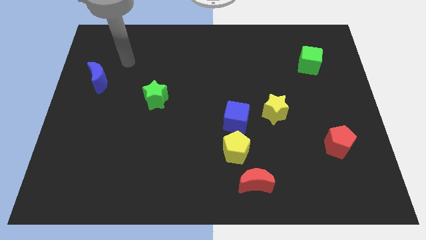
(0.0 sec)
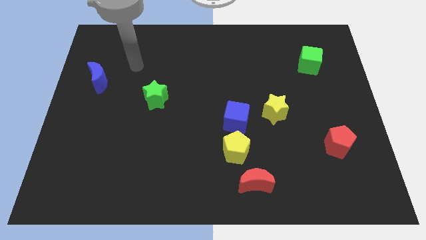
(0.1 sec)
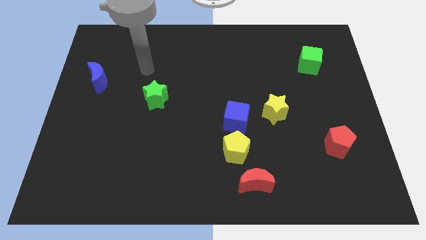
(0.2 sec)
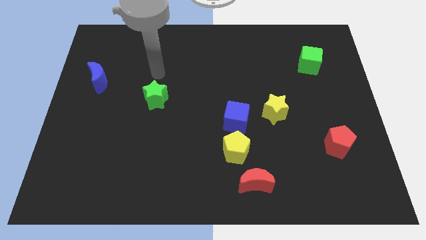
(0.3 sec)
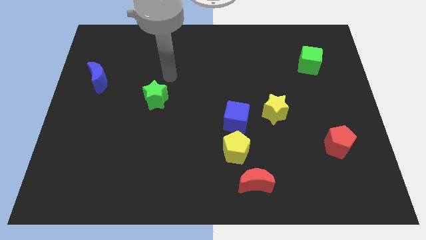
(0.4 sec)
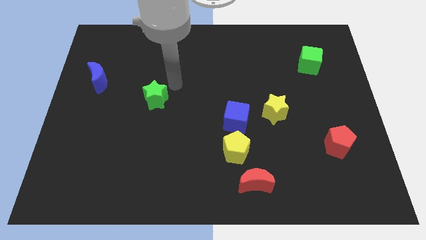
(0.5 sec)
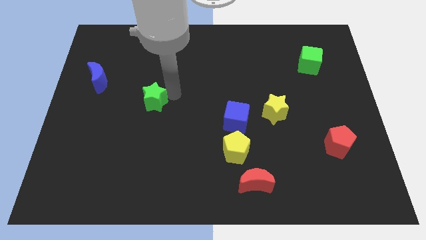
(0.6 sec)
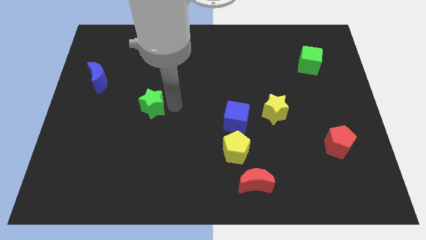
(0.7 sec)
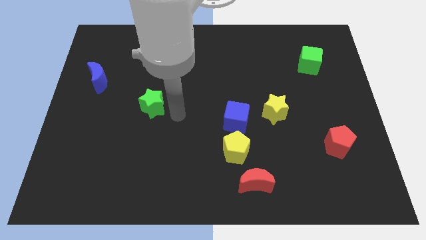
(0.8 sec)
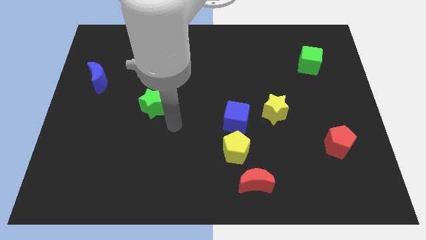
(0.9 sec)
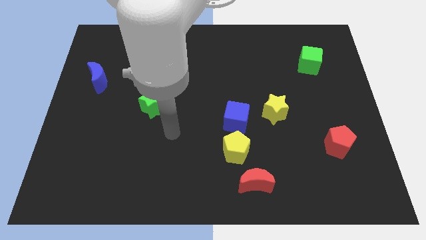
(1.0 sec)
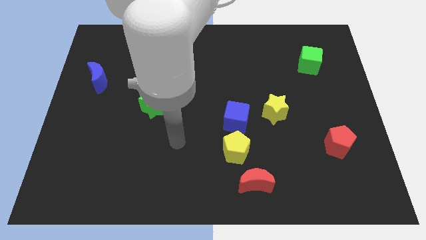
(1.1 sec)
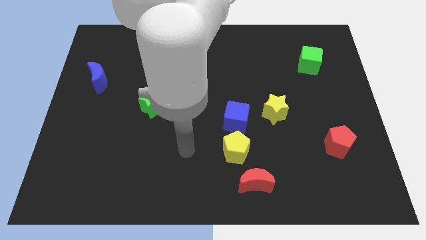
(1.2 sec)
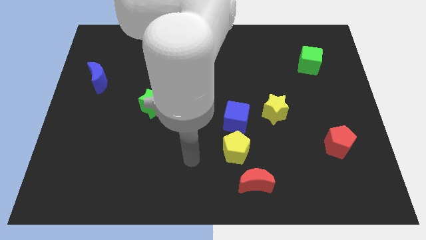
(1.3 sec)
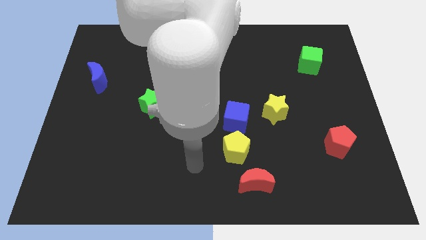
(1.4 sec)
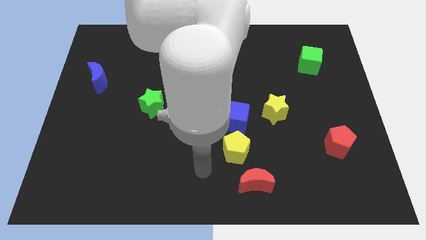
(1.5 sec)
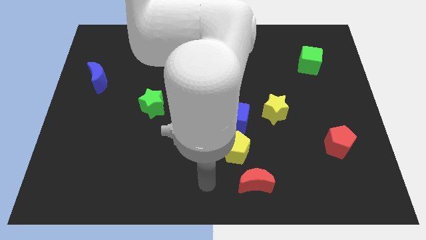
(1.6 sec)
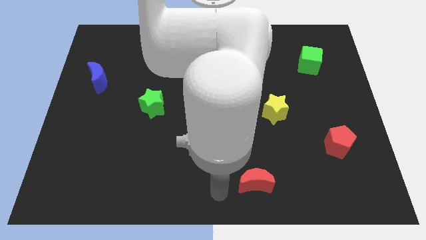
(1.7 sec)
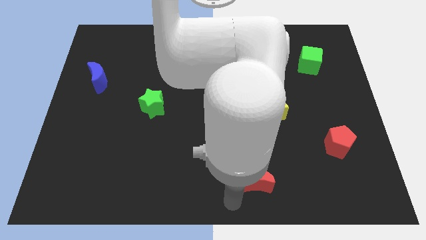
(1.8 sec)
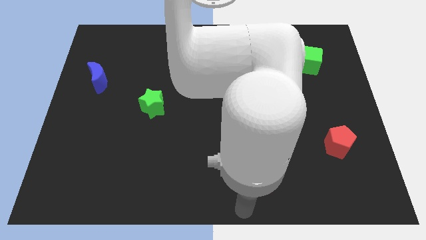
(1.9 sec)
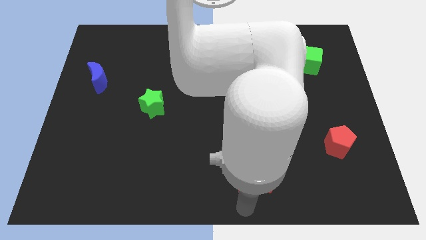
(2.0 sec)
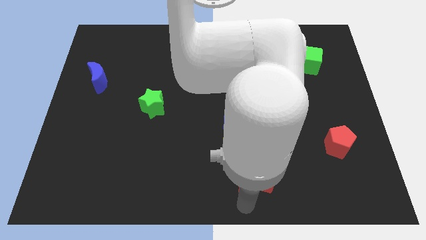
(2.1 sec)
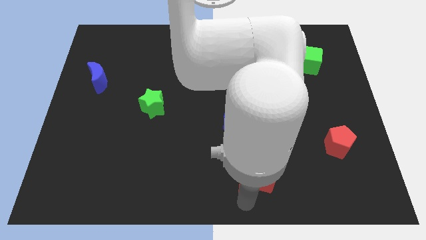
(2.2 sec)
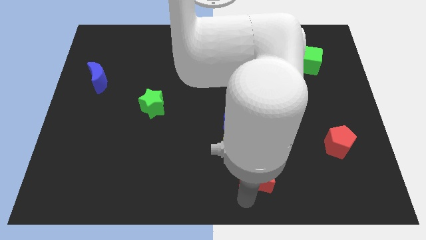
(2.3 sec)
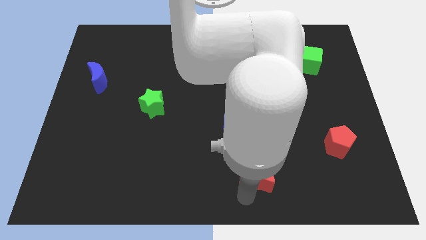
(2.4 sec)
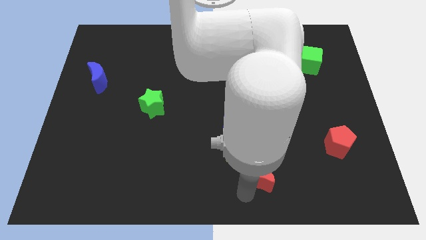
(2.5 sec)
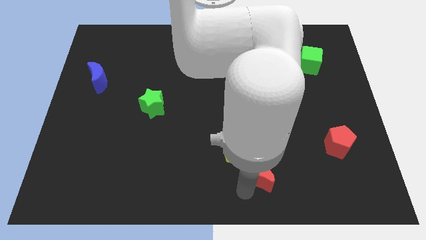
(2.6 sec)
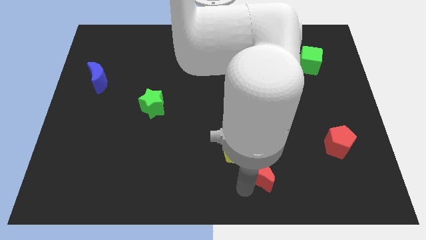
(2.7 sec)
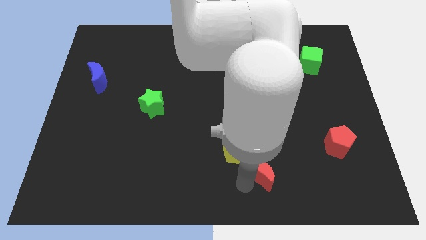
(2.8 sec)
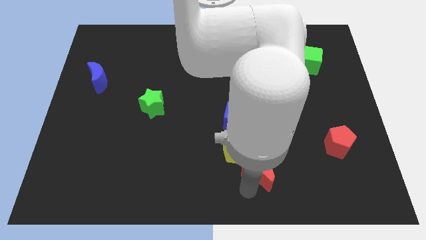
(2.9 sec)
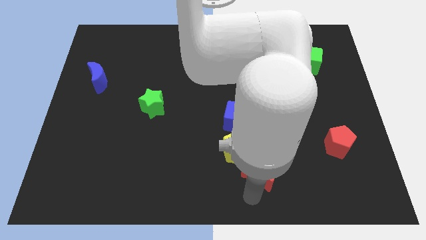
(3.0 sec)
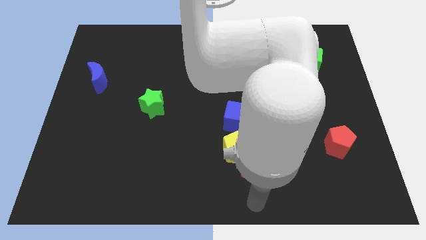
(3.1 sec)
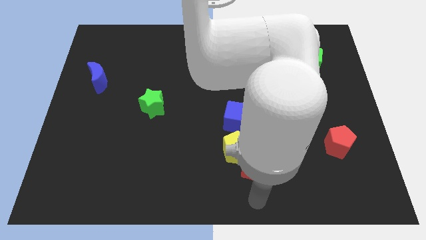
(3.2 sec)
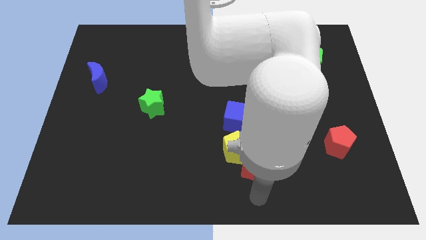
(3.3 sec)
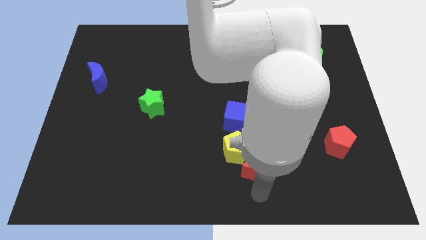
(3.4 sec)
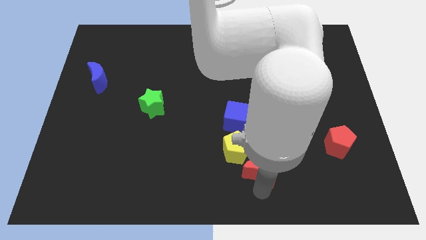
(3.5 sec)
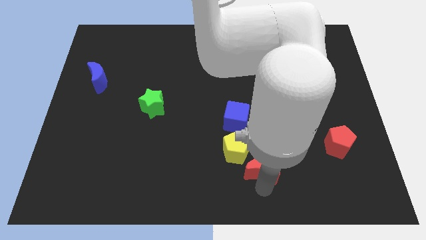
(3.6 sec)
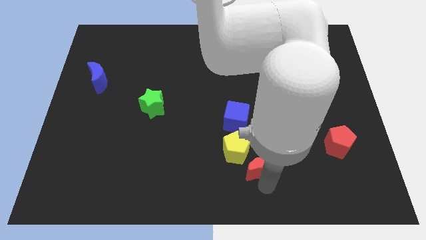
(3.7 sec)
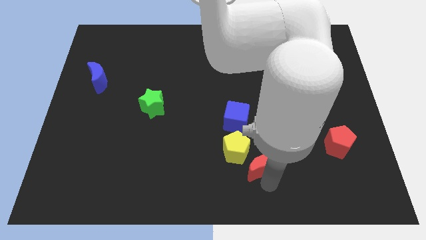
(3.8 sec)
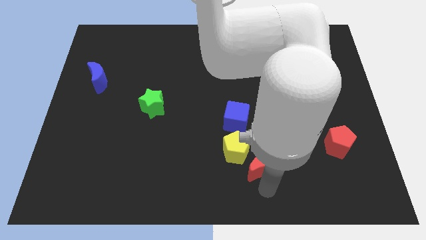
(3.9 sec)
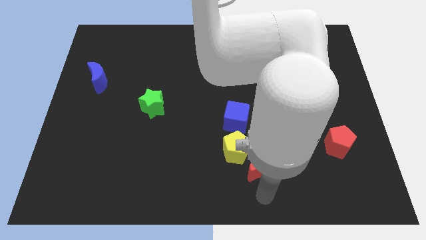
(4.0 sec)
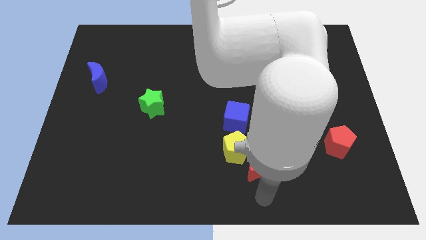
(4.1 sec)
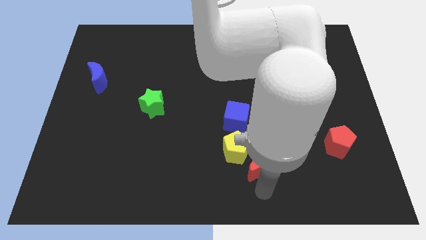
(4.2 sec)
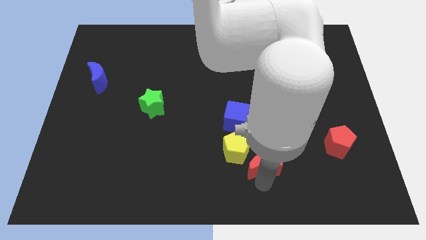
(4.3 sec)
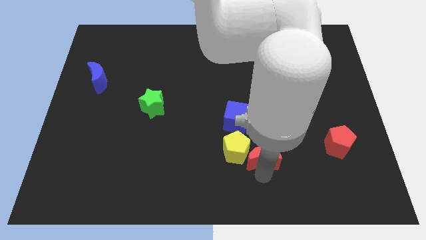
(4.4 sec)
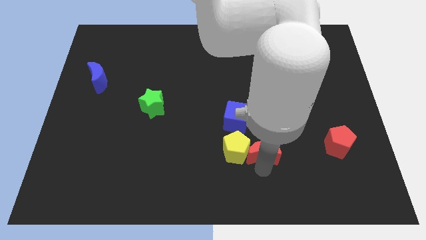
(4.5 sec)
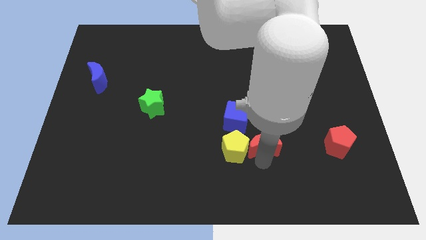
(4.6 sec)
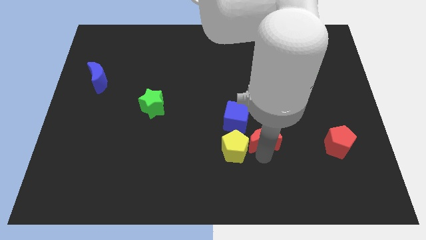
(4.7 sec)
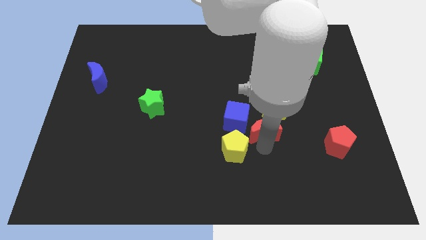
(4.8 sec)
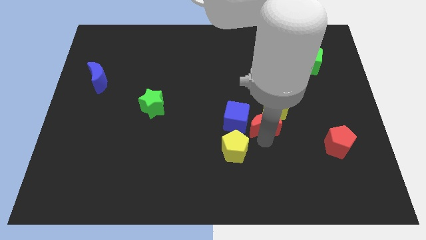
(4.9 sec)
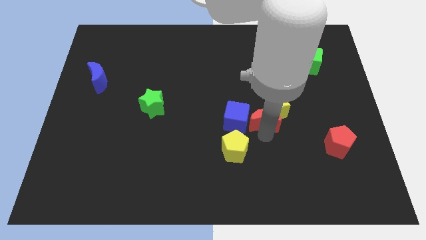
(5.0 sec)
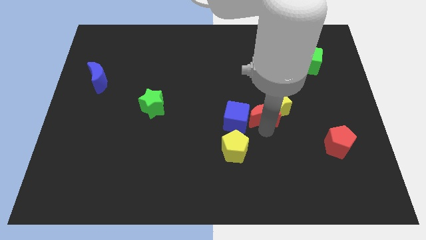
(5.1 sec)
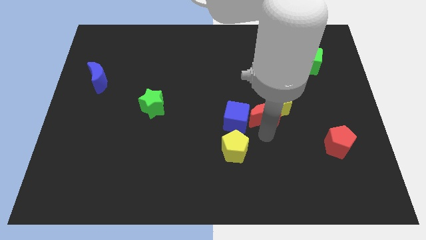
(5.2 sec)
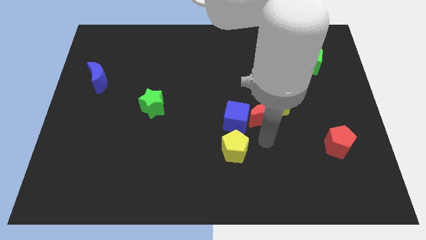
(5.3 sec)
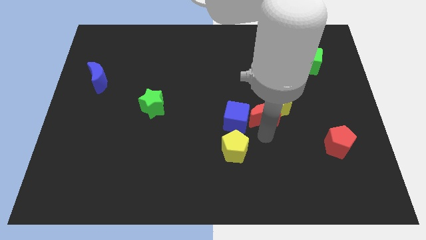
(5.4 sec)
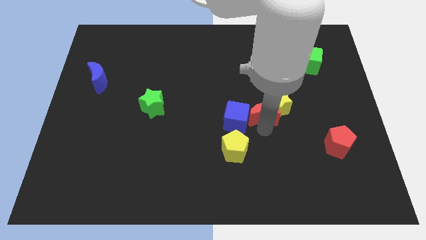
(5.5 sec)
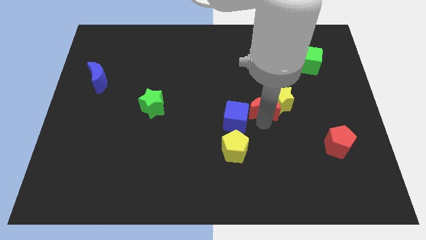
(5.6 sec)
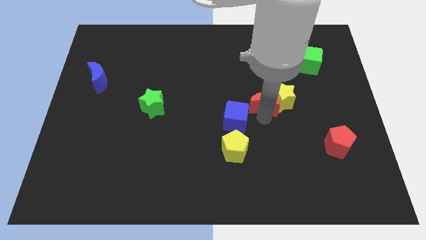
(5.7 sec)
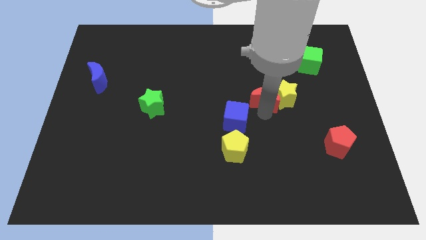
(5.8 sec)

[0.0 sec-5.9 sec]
move the red moon up

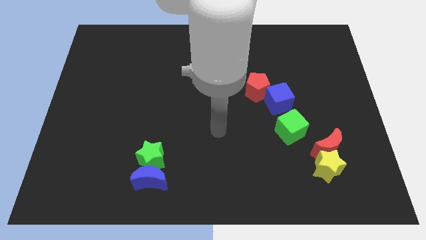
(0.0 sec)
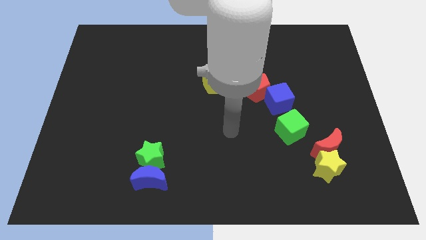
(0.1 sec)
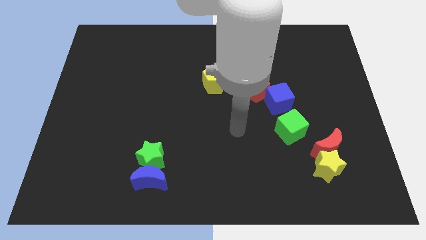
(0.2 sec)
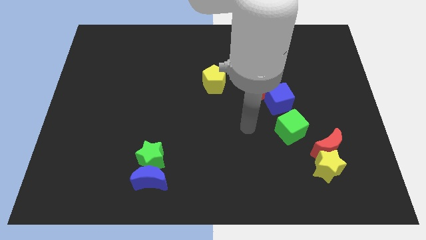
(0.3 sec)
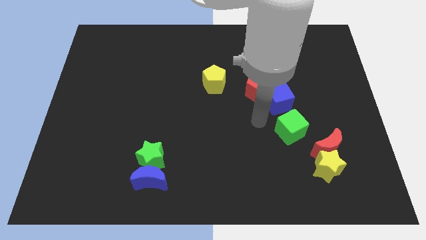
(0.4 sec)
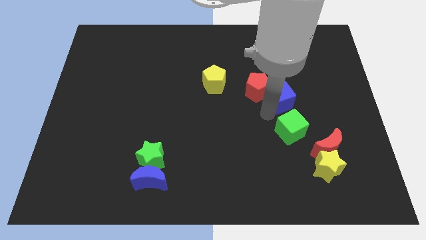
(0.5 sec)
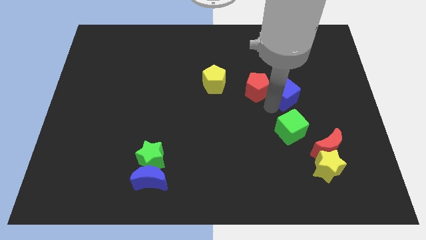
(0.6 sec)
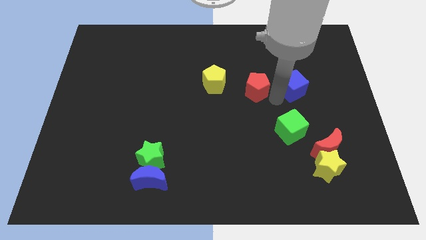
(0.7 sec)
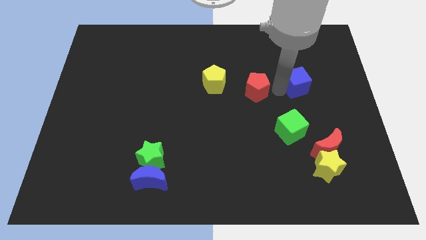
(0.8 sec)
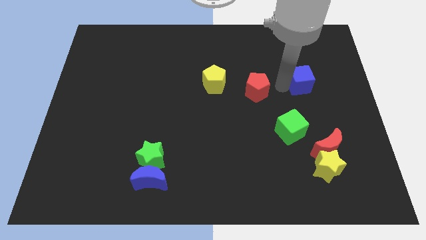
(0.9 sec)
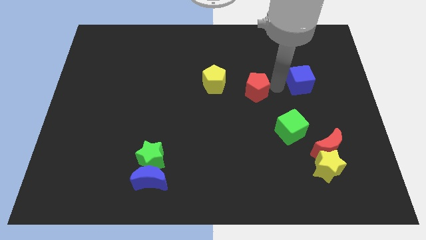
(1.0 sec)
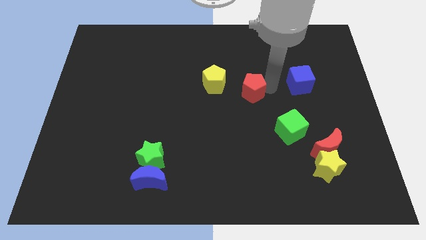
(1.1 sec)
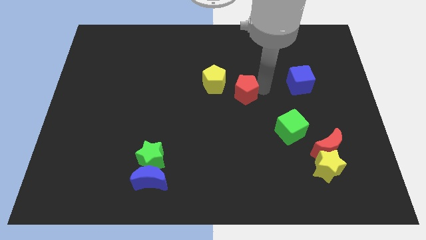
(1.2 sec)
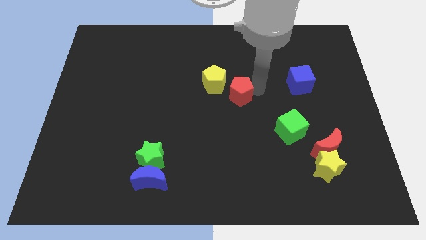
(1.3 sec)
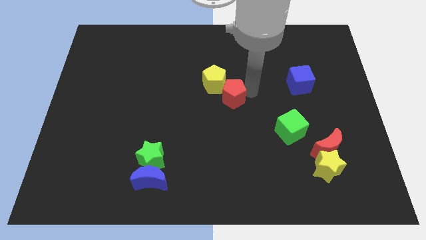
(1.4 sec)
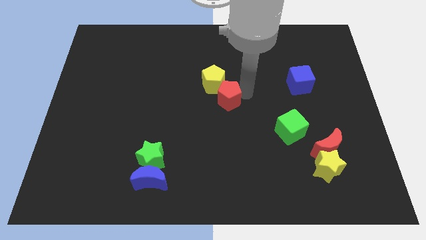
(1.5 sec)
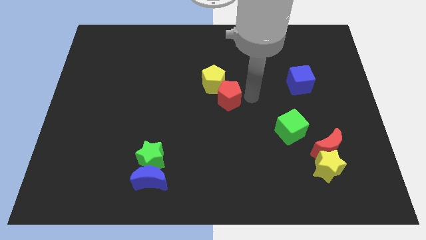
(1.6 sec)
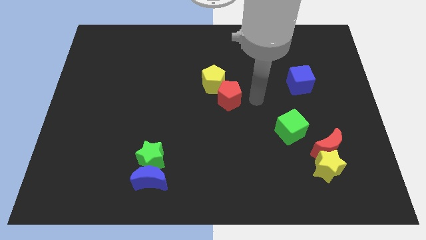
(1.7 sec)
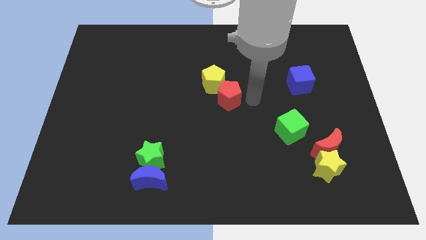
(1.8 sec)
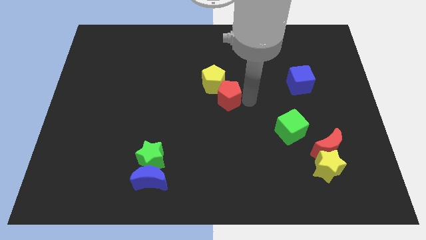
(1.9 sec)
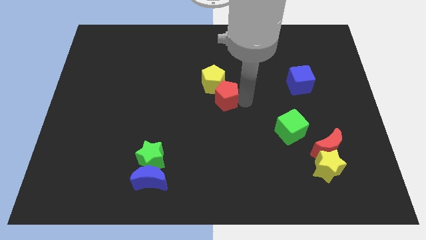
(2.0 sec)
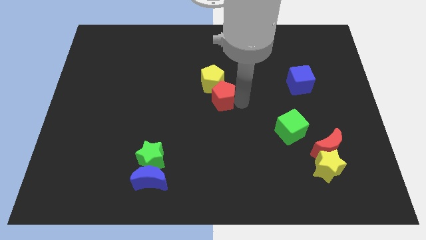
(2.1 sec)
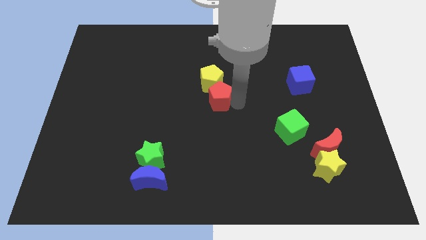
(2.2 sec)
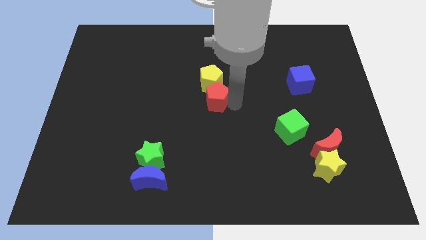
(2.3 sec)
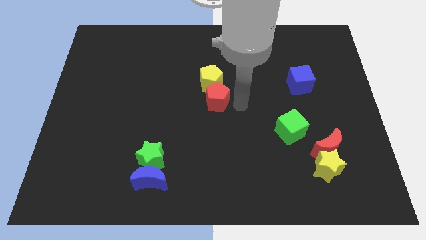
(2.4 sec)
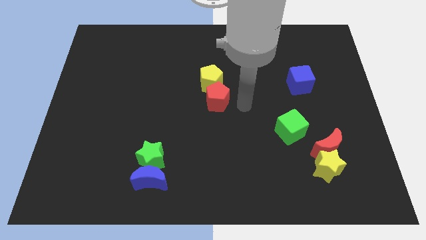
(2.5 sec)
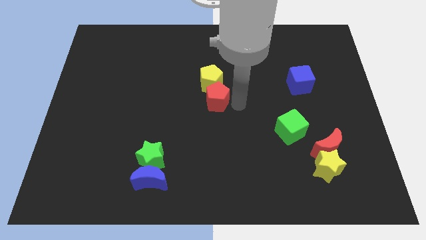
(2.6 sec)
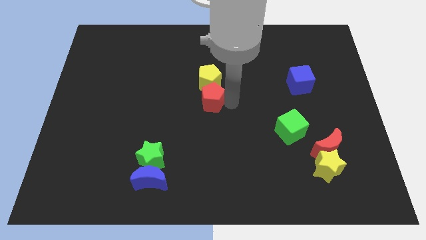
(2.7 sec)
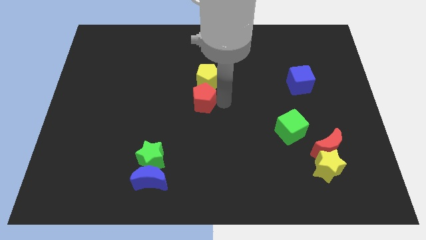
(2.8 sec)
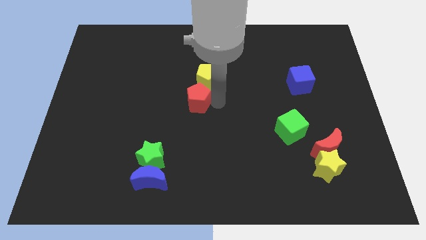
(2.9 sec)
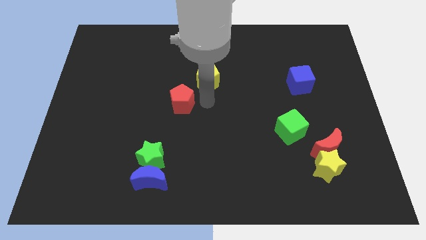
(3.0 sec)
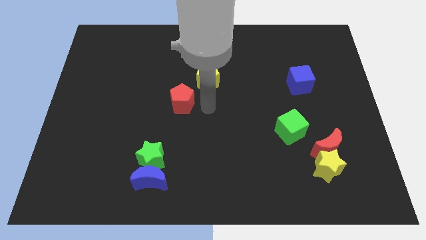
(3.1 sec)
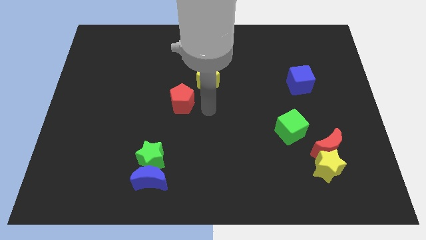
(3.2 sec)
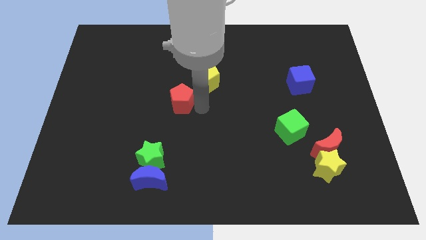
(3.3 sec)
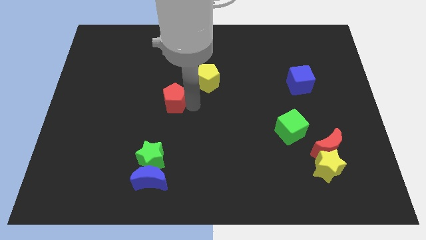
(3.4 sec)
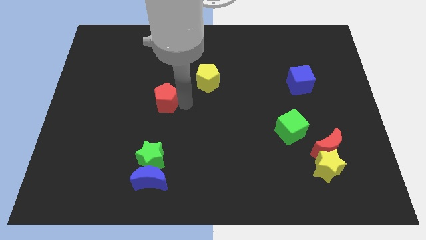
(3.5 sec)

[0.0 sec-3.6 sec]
move the red pentagon left
